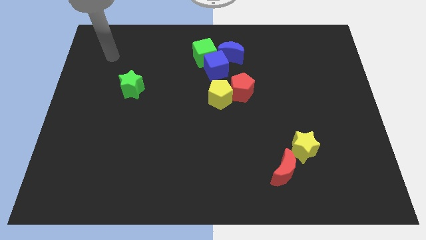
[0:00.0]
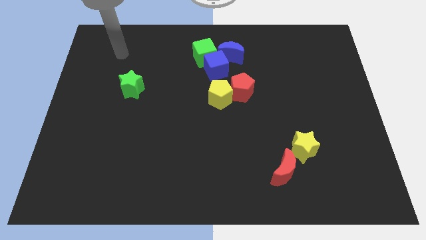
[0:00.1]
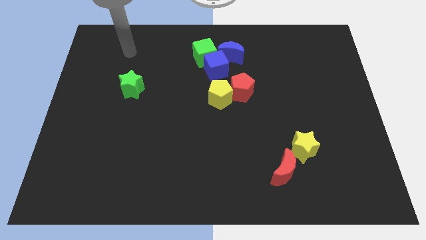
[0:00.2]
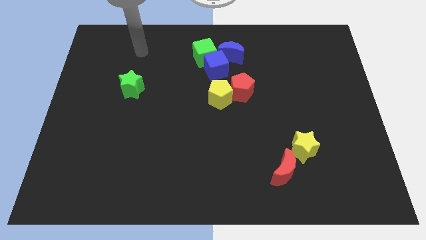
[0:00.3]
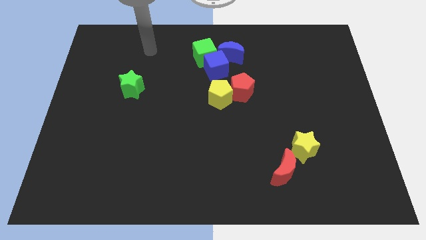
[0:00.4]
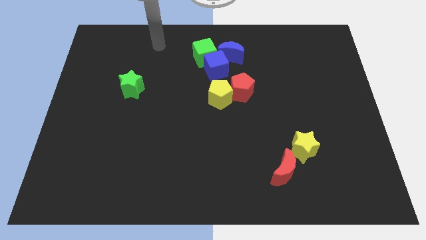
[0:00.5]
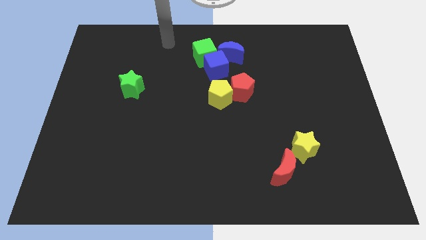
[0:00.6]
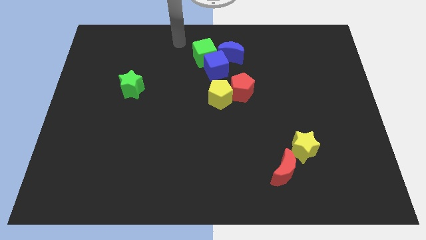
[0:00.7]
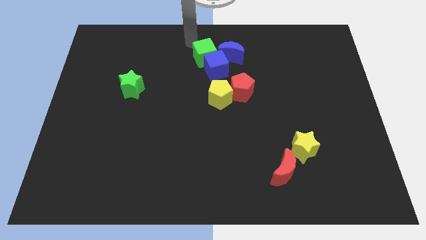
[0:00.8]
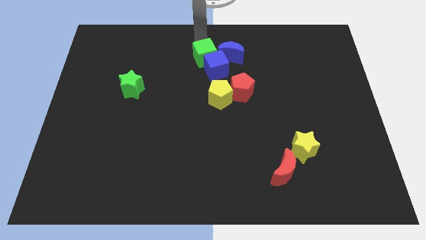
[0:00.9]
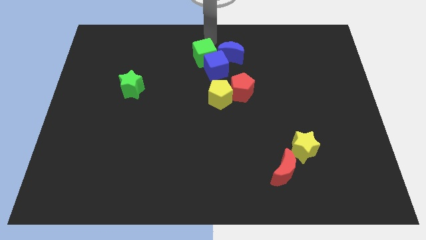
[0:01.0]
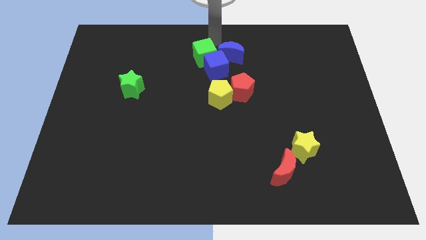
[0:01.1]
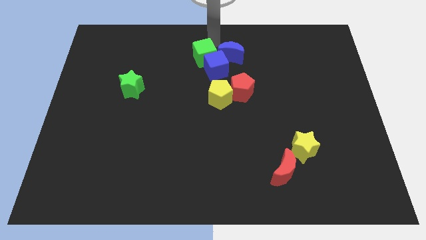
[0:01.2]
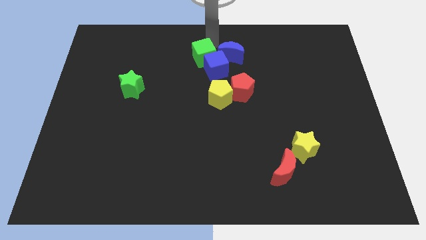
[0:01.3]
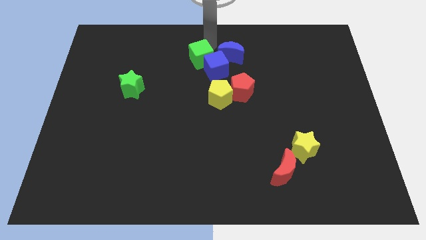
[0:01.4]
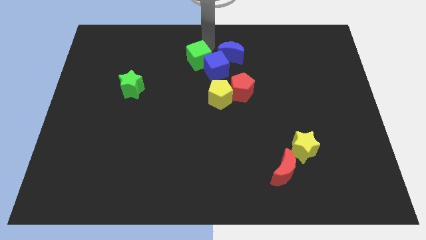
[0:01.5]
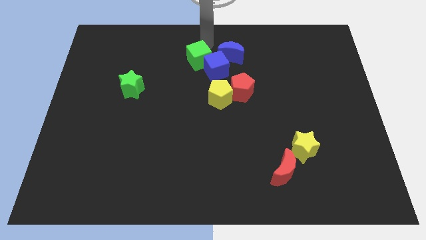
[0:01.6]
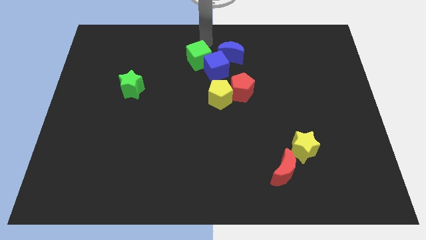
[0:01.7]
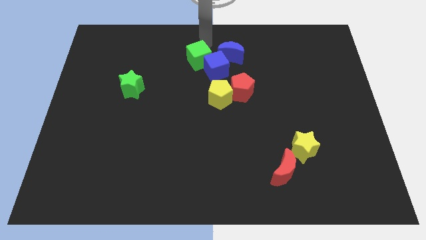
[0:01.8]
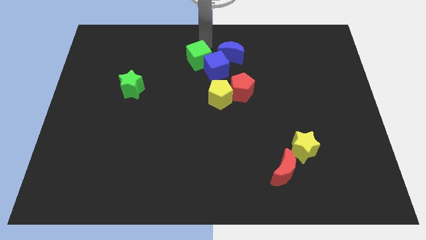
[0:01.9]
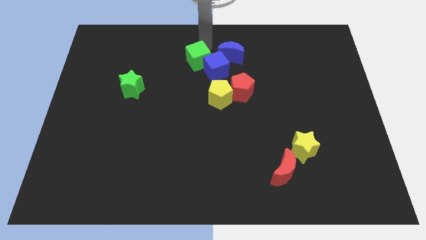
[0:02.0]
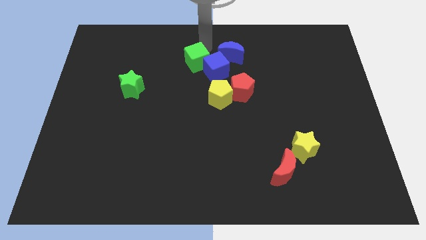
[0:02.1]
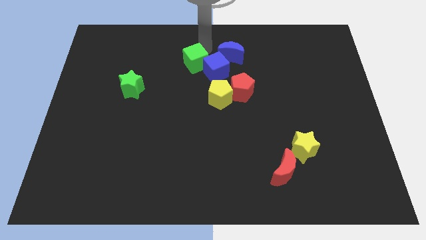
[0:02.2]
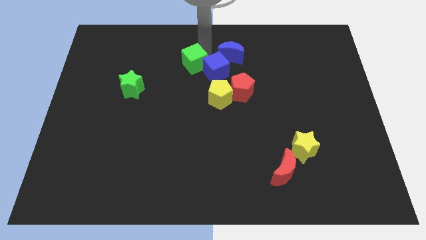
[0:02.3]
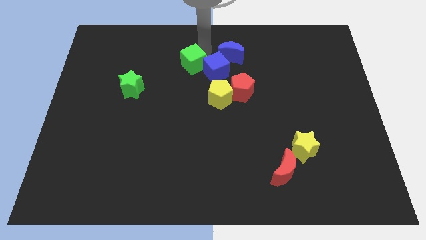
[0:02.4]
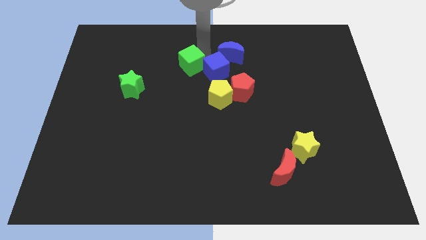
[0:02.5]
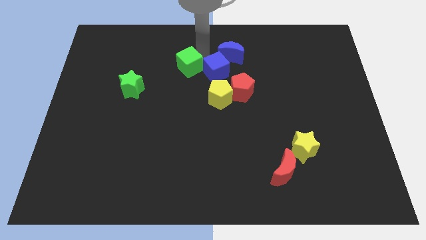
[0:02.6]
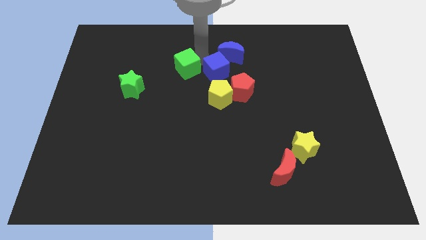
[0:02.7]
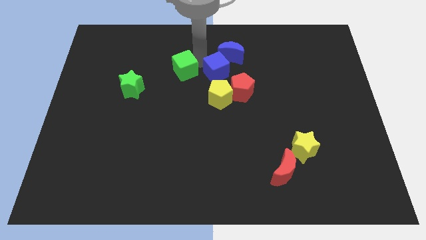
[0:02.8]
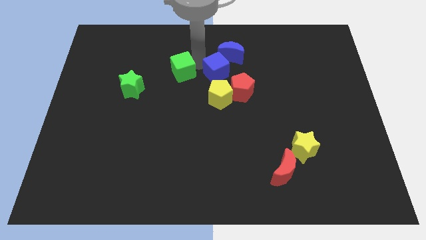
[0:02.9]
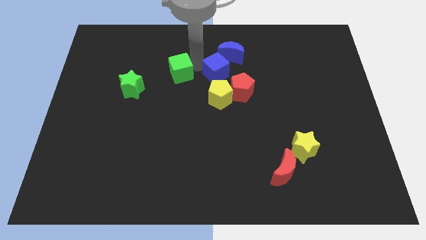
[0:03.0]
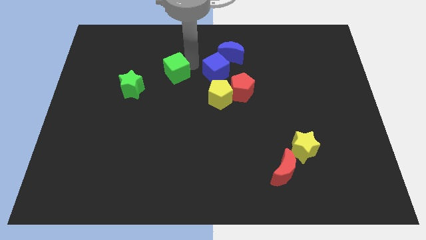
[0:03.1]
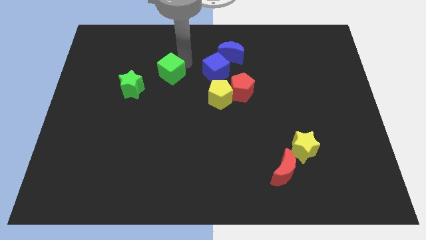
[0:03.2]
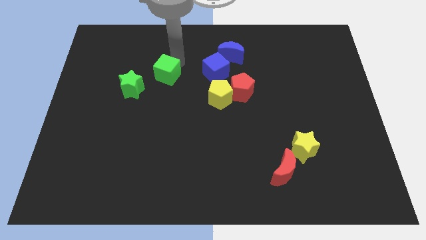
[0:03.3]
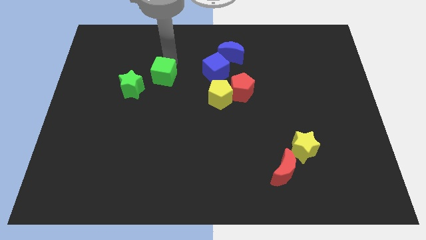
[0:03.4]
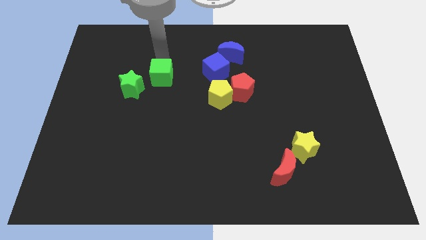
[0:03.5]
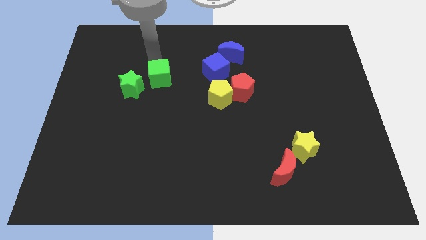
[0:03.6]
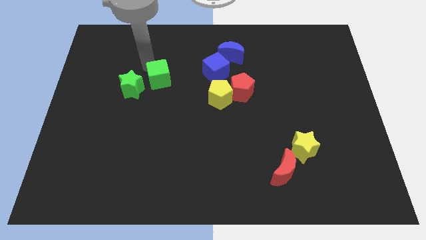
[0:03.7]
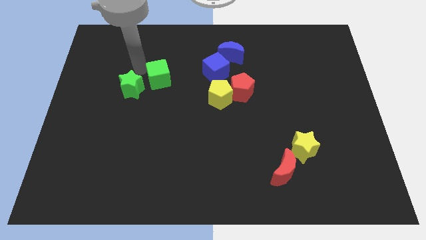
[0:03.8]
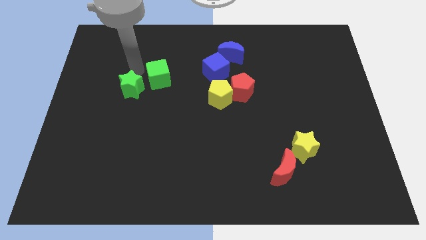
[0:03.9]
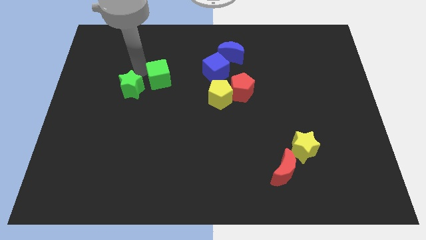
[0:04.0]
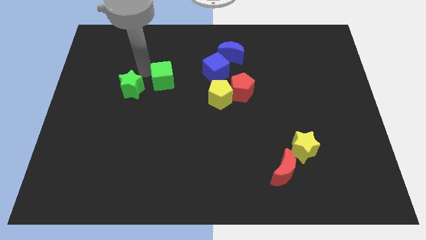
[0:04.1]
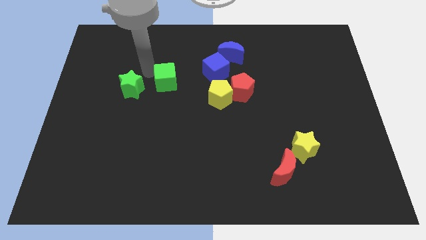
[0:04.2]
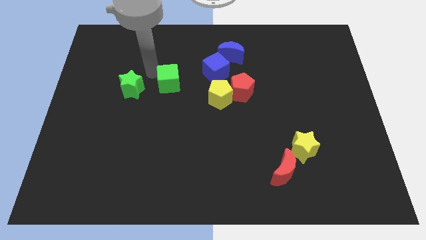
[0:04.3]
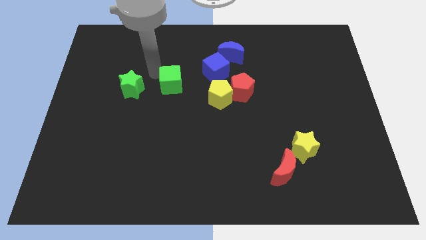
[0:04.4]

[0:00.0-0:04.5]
push the green cube down a bit

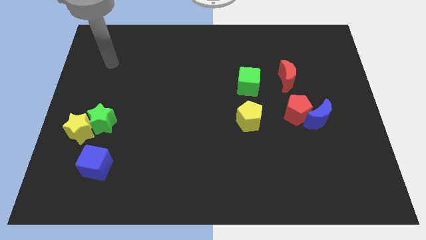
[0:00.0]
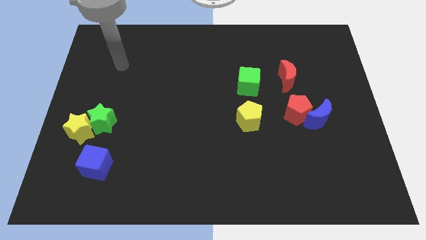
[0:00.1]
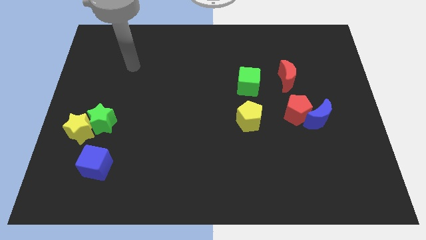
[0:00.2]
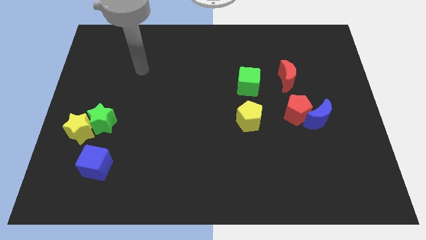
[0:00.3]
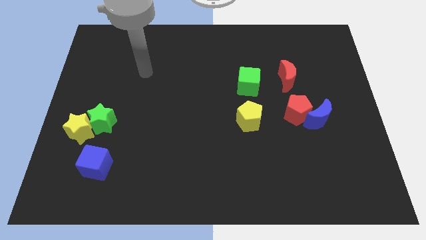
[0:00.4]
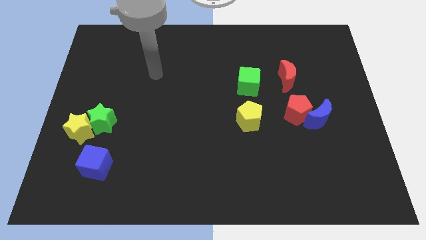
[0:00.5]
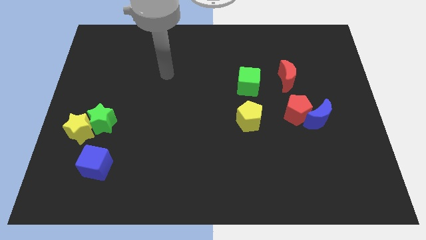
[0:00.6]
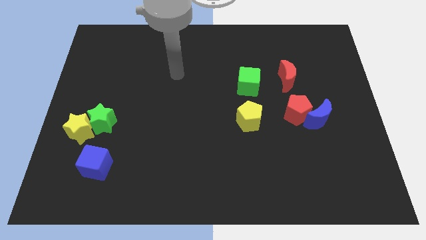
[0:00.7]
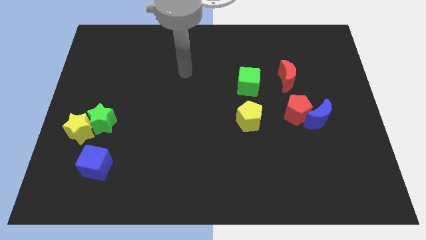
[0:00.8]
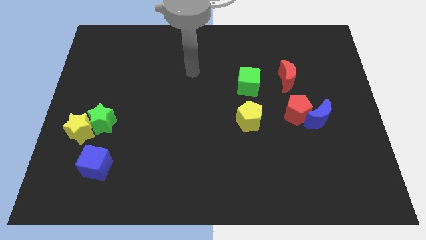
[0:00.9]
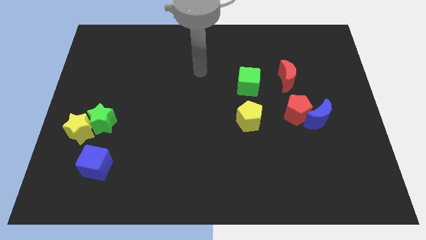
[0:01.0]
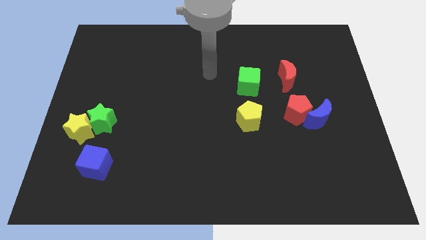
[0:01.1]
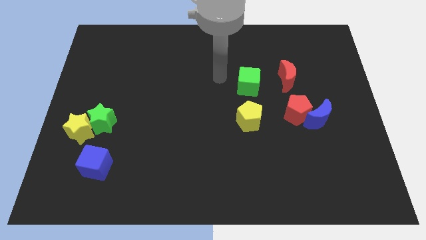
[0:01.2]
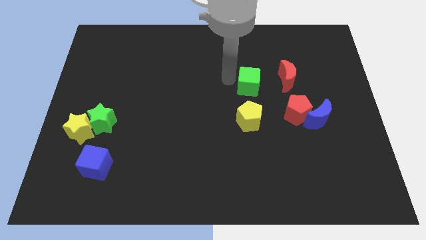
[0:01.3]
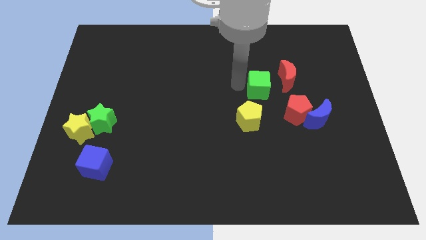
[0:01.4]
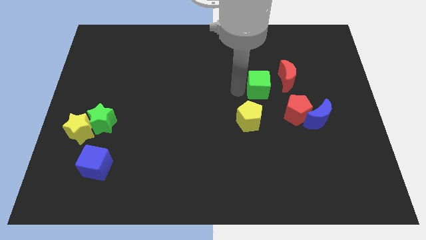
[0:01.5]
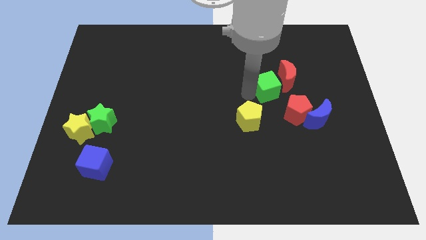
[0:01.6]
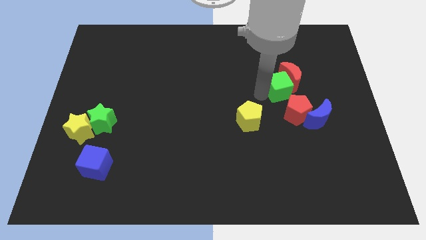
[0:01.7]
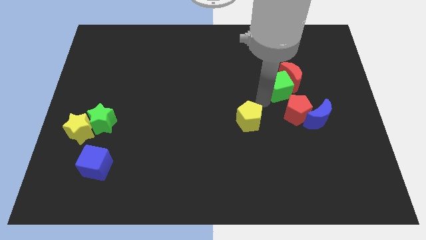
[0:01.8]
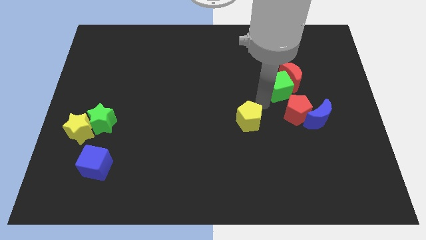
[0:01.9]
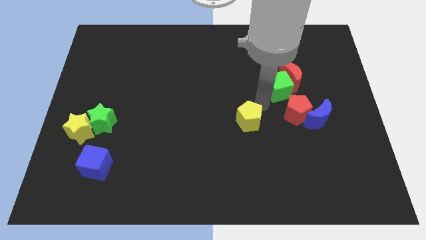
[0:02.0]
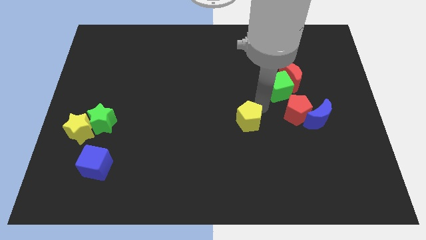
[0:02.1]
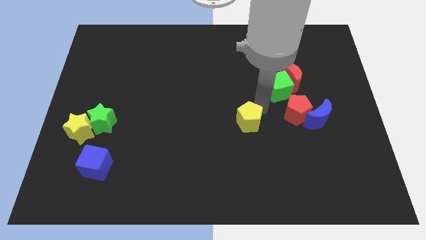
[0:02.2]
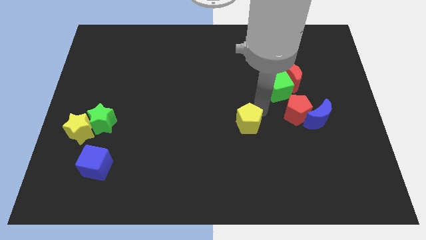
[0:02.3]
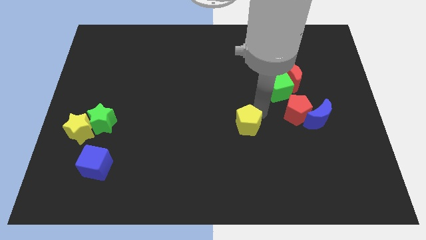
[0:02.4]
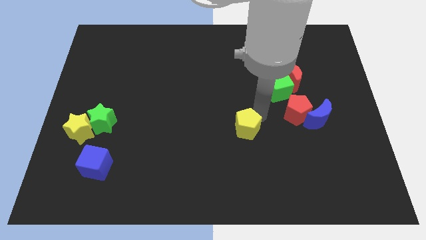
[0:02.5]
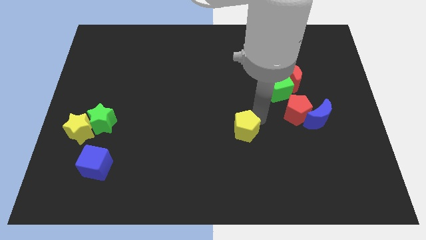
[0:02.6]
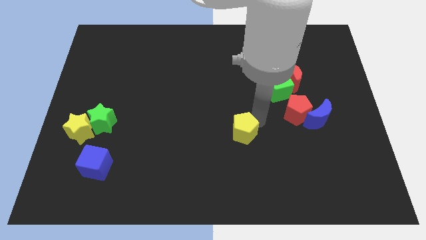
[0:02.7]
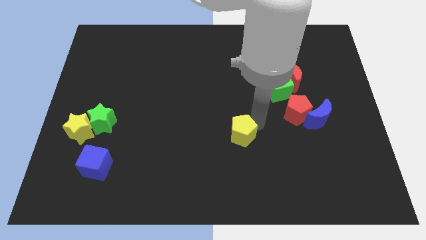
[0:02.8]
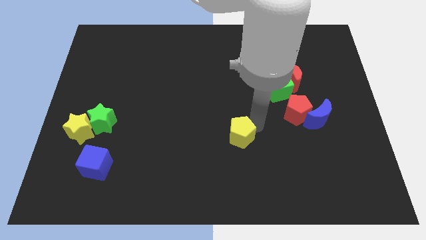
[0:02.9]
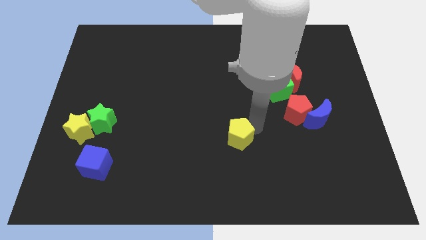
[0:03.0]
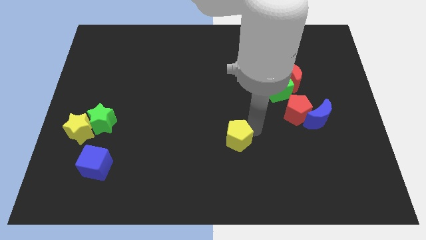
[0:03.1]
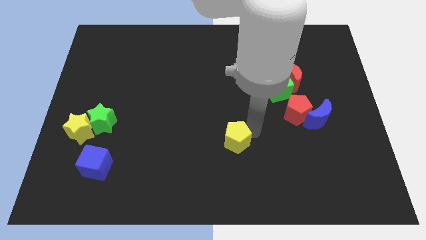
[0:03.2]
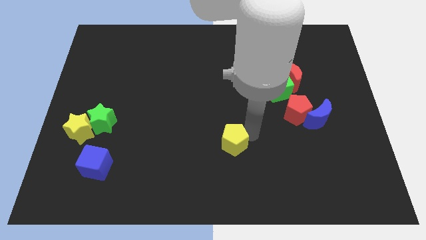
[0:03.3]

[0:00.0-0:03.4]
slightly move the yellow pentagon diagonally down and left

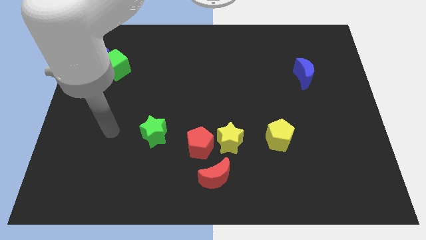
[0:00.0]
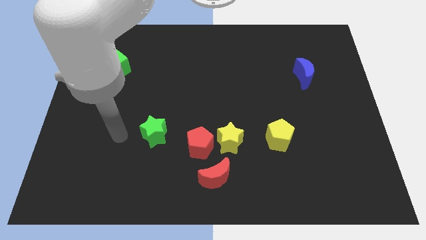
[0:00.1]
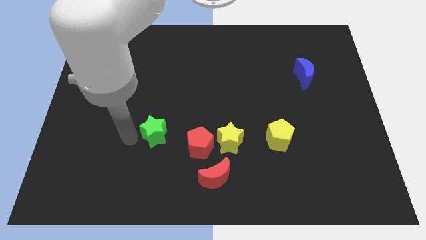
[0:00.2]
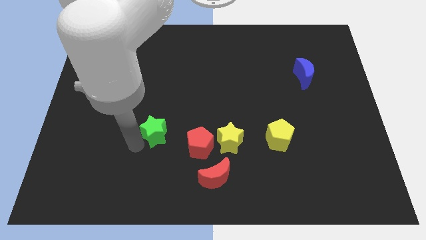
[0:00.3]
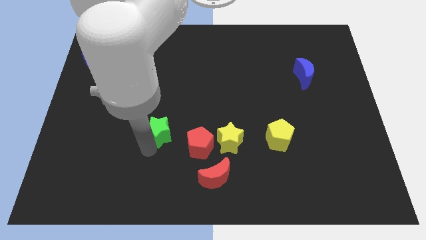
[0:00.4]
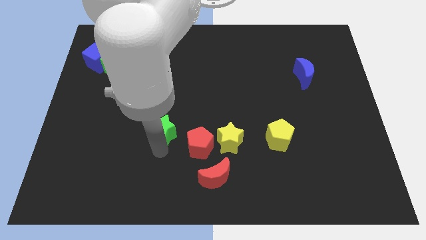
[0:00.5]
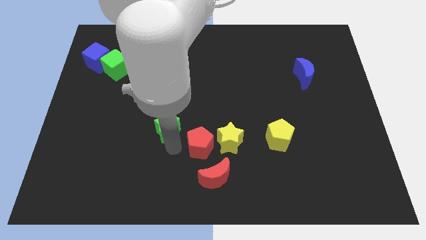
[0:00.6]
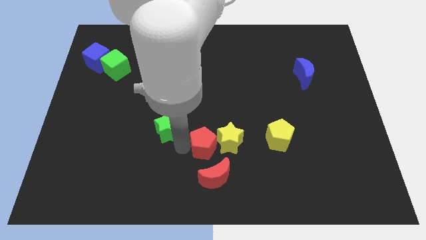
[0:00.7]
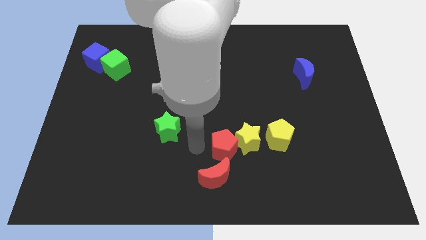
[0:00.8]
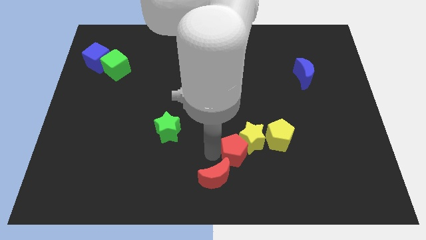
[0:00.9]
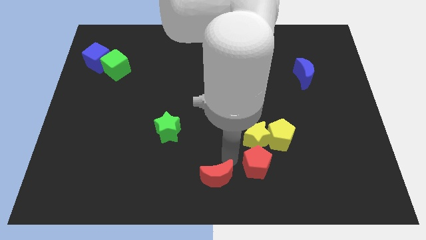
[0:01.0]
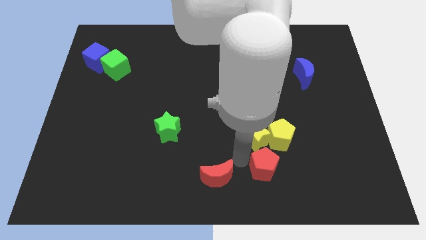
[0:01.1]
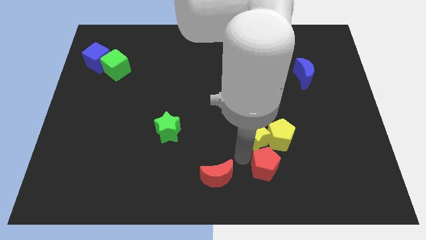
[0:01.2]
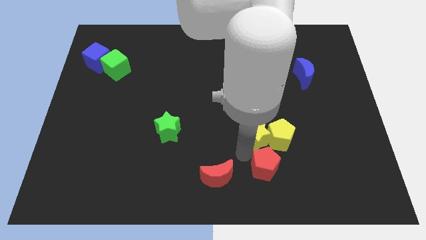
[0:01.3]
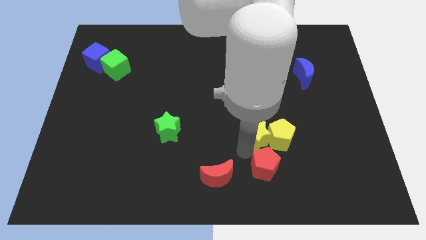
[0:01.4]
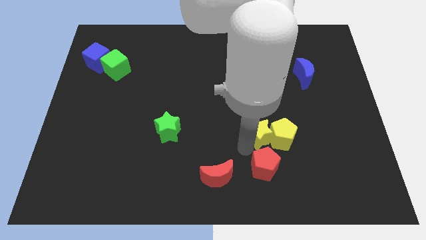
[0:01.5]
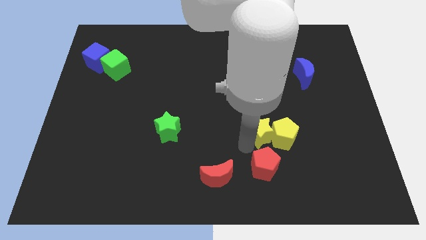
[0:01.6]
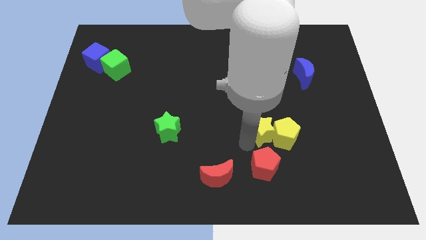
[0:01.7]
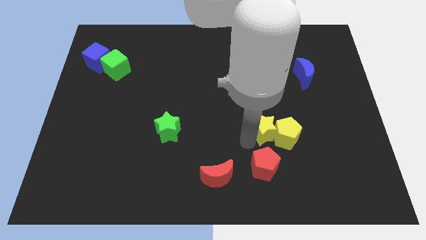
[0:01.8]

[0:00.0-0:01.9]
move the yellow star diagonally up and right somewhat
